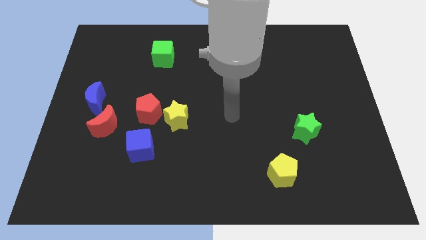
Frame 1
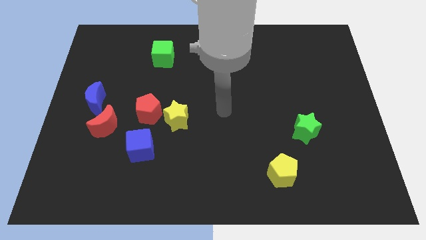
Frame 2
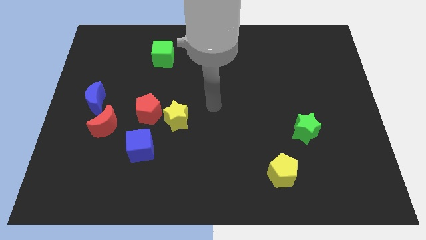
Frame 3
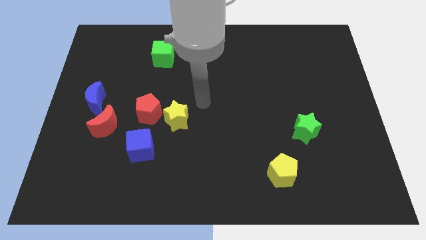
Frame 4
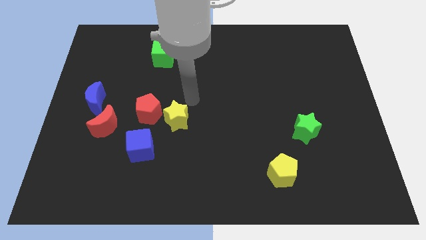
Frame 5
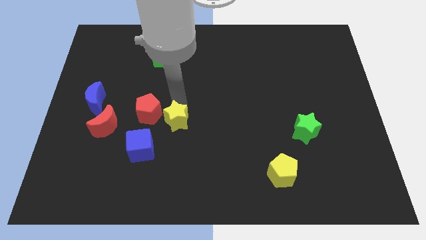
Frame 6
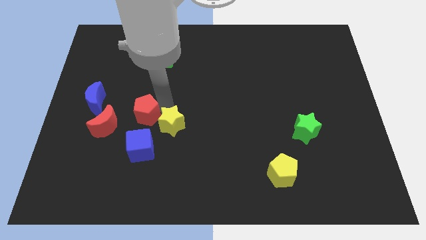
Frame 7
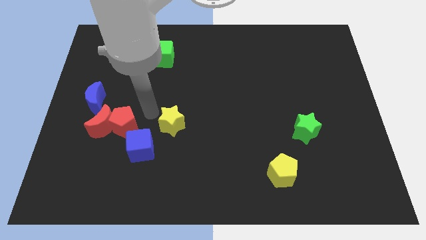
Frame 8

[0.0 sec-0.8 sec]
separate the yellow star from the red pentagon

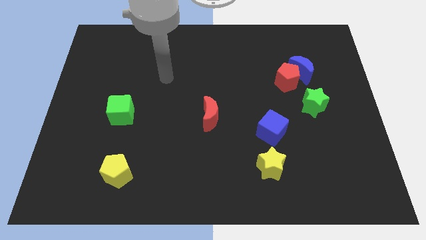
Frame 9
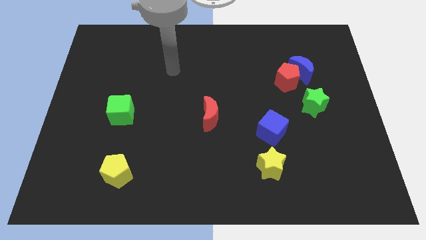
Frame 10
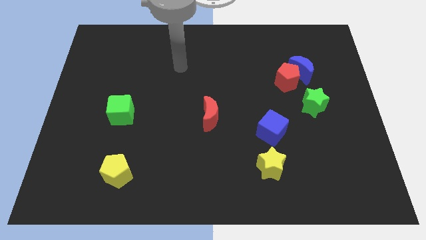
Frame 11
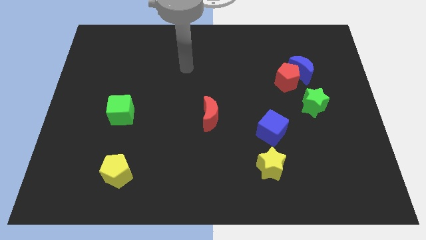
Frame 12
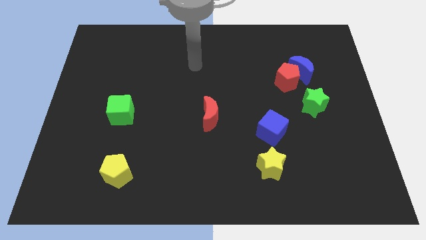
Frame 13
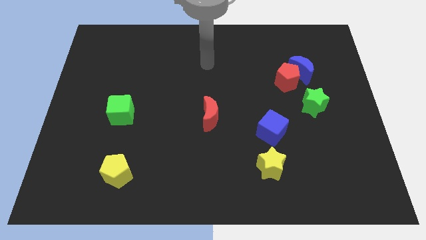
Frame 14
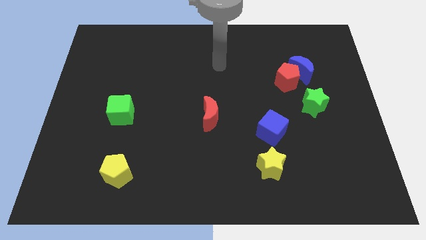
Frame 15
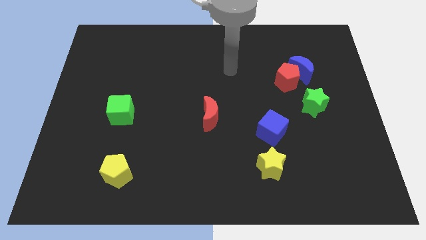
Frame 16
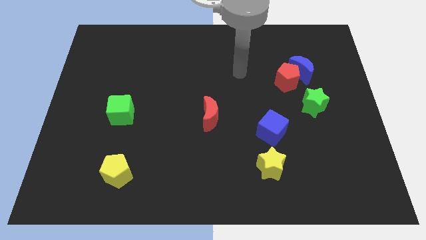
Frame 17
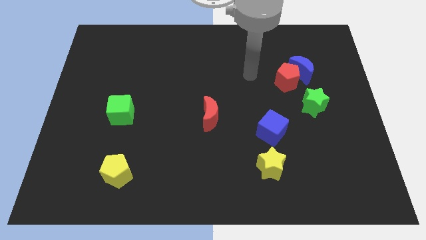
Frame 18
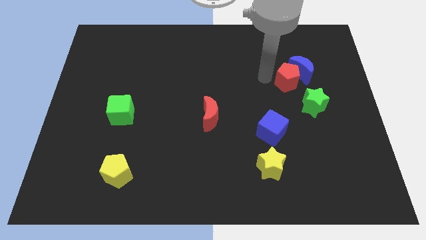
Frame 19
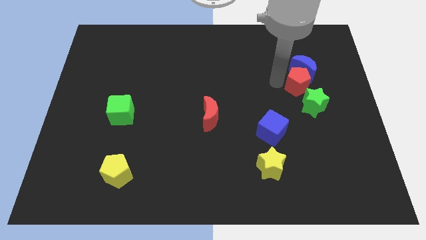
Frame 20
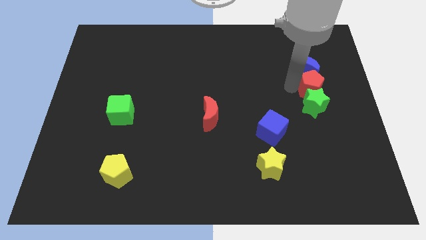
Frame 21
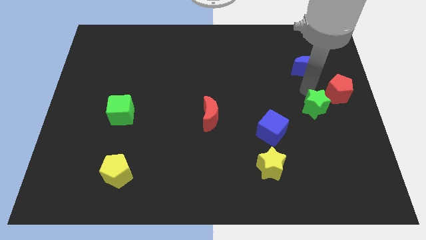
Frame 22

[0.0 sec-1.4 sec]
pull the blue moon apart from the red pentagon

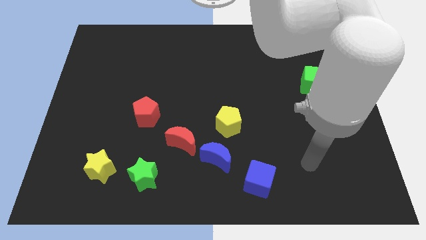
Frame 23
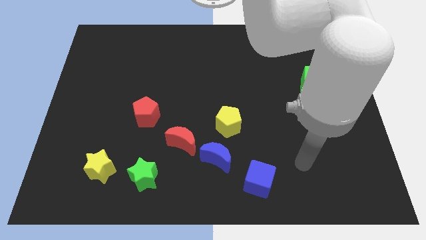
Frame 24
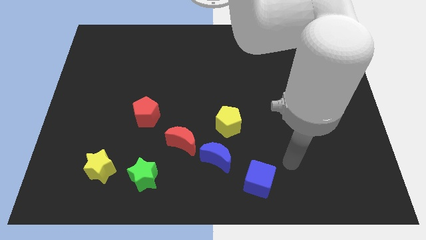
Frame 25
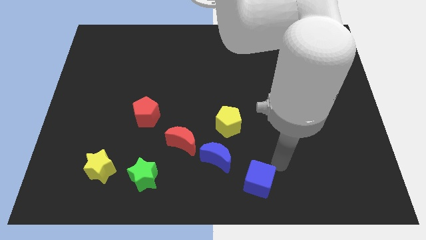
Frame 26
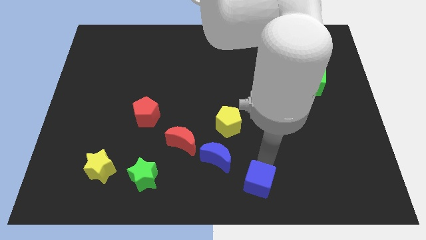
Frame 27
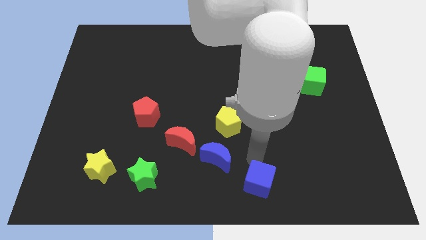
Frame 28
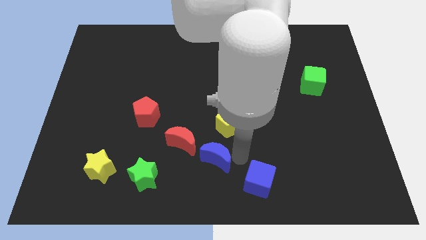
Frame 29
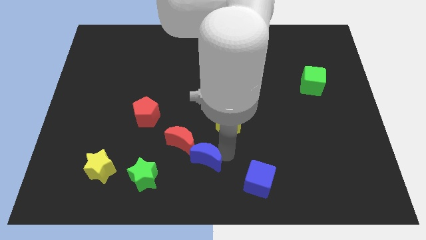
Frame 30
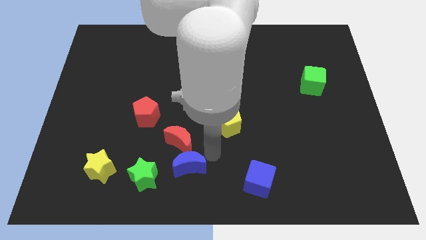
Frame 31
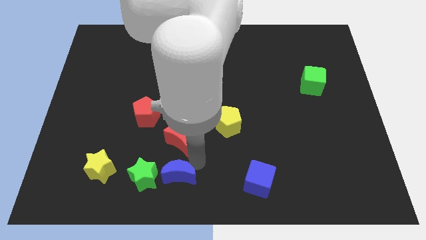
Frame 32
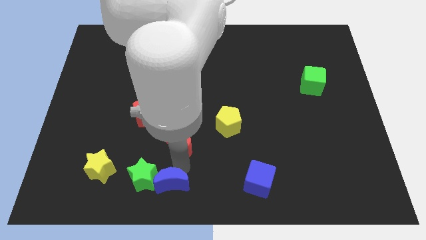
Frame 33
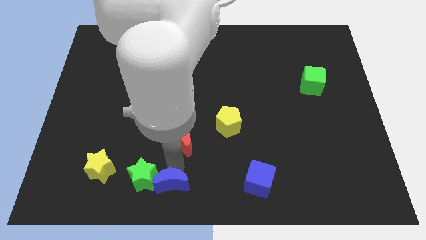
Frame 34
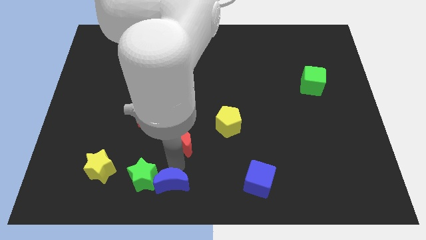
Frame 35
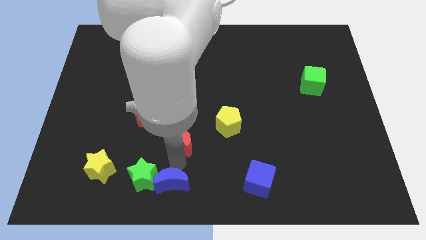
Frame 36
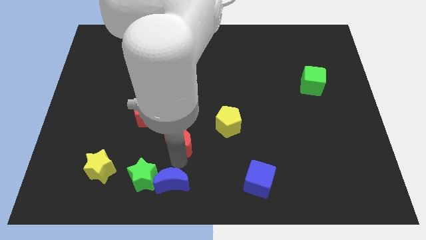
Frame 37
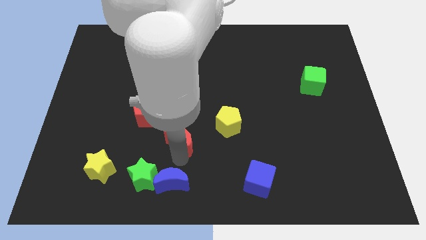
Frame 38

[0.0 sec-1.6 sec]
move the red moon away from the blue moon

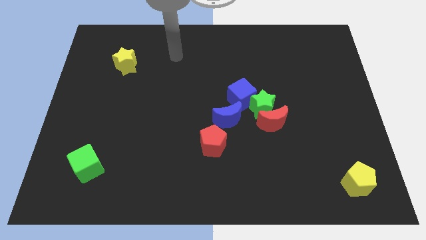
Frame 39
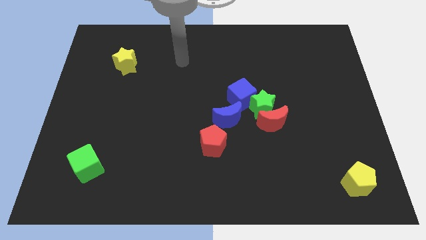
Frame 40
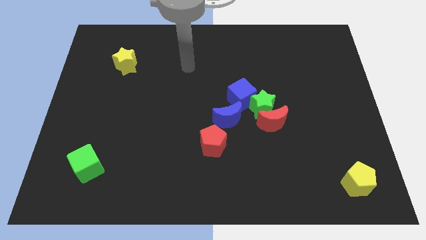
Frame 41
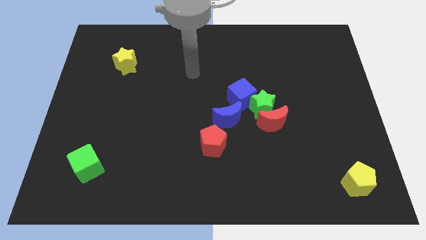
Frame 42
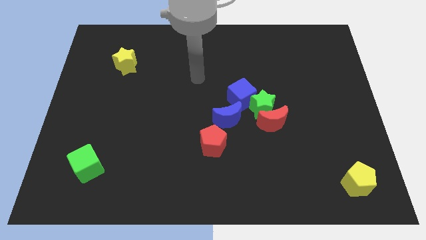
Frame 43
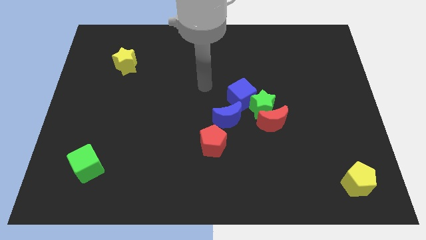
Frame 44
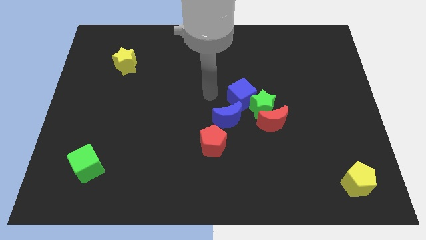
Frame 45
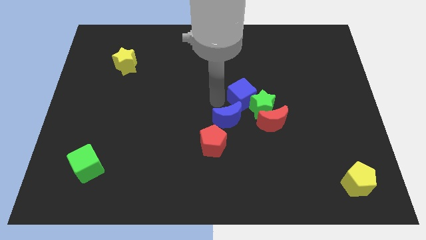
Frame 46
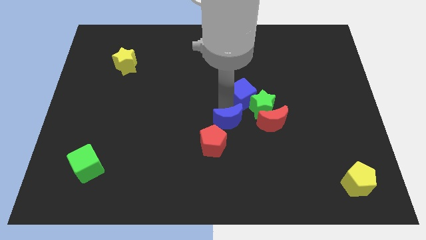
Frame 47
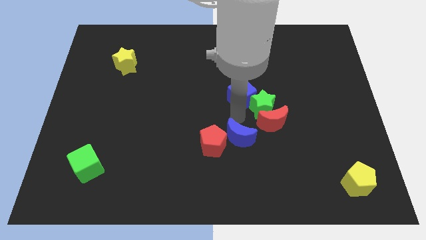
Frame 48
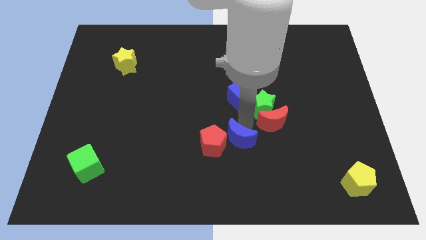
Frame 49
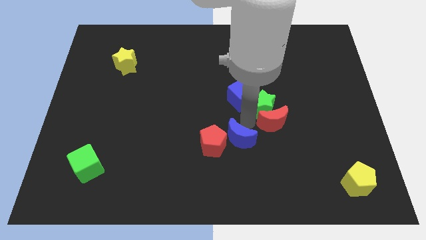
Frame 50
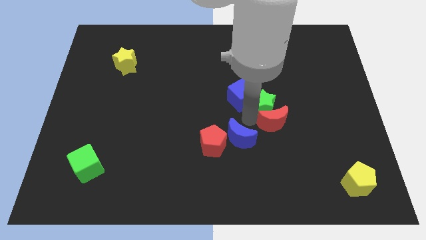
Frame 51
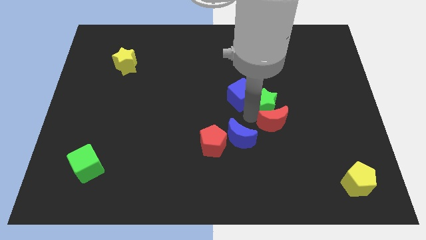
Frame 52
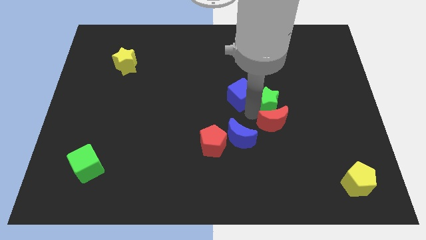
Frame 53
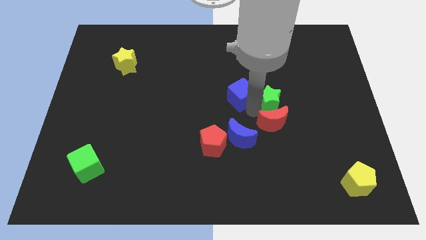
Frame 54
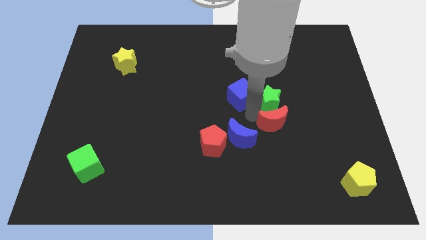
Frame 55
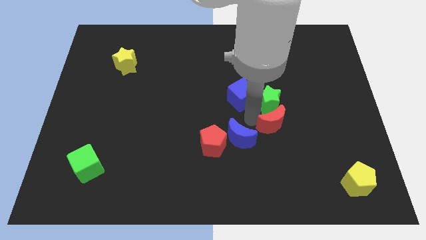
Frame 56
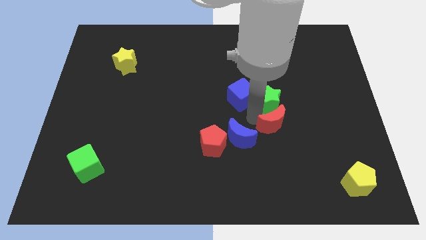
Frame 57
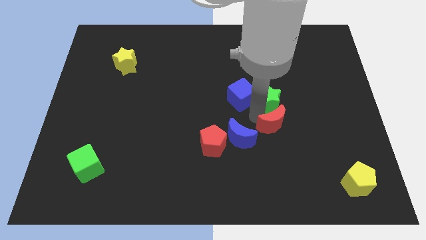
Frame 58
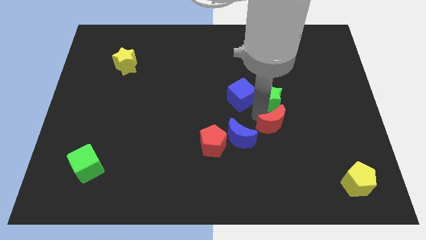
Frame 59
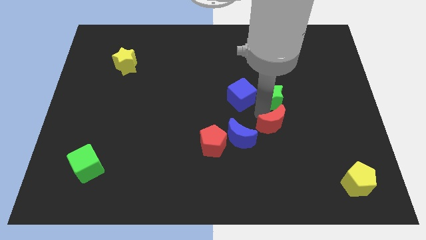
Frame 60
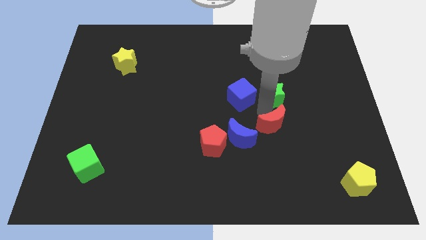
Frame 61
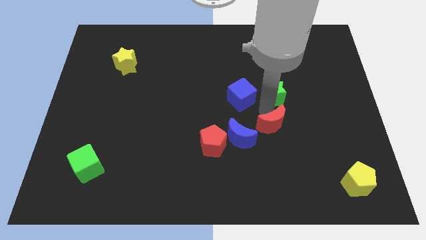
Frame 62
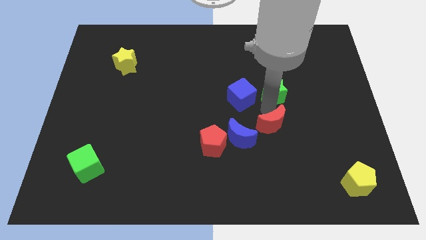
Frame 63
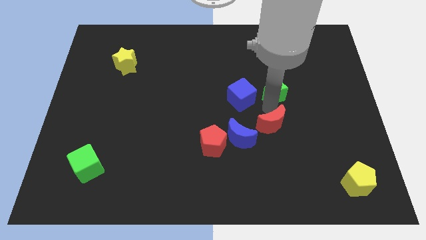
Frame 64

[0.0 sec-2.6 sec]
separate the green star from the group of blocks

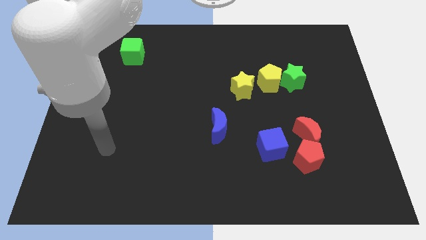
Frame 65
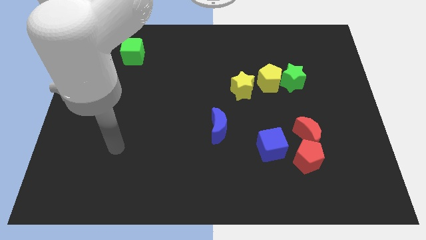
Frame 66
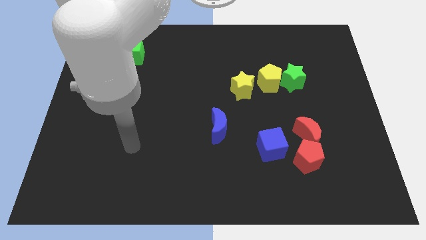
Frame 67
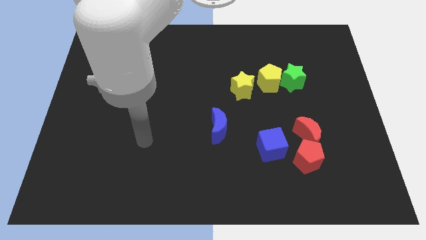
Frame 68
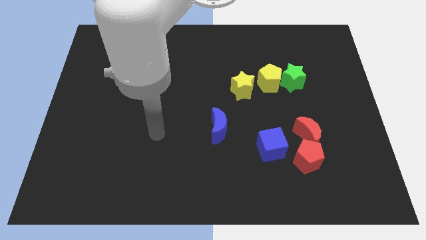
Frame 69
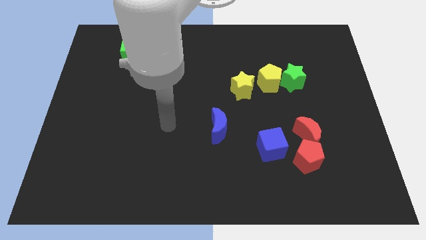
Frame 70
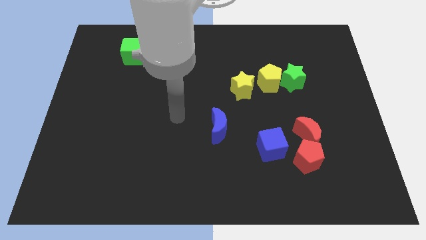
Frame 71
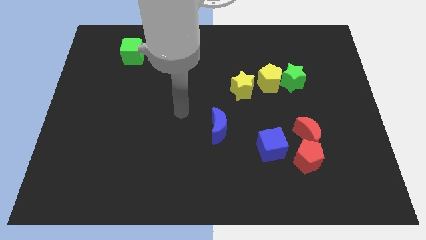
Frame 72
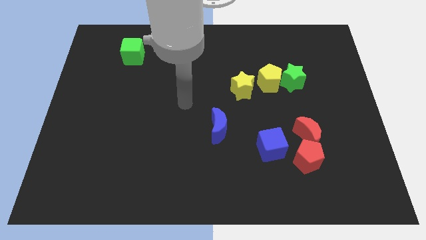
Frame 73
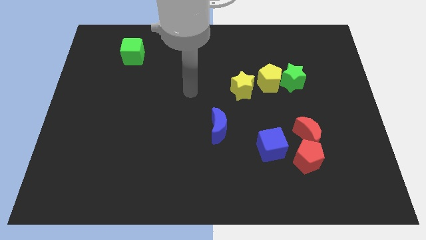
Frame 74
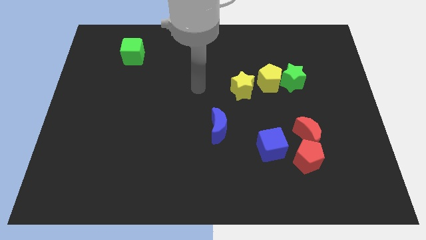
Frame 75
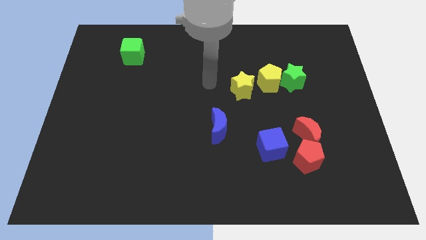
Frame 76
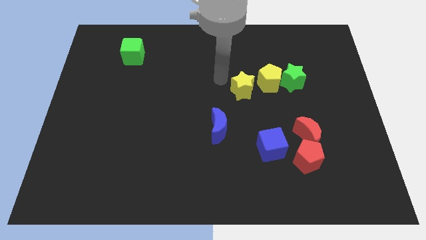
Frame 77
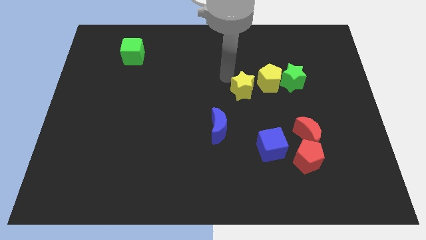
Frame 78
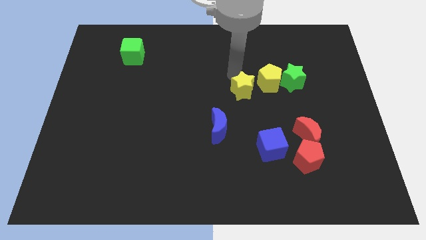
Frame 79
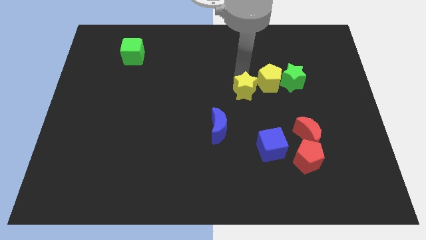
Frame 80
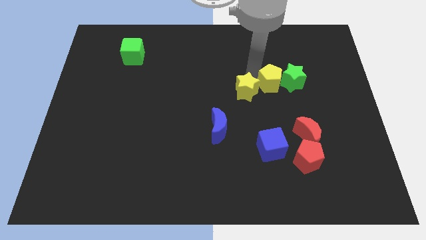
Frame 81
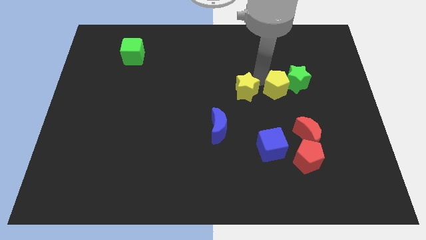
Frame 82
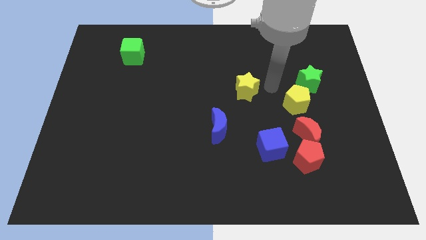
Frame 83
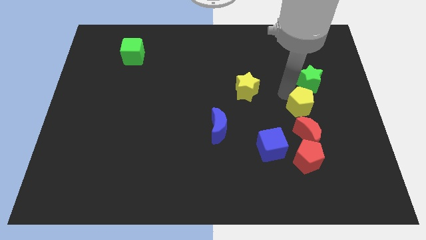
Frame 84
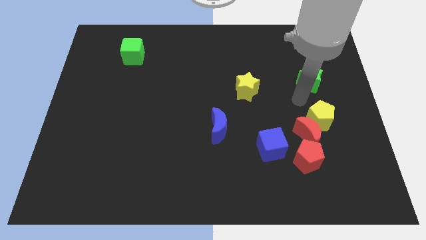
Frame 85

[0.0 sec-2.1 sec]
move the green star away from the yellow pentagon

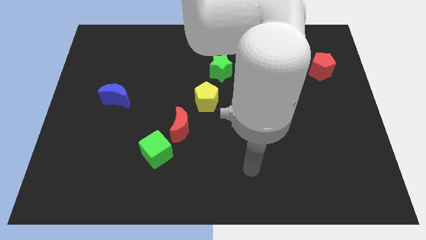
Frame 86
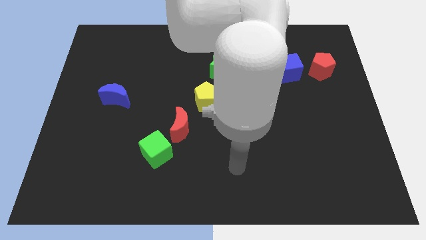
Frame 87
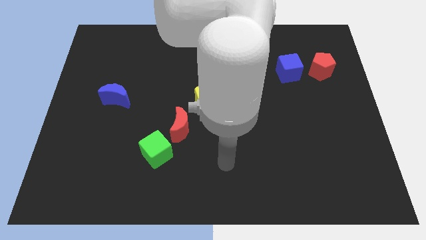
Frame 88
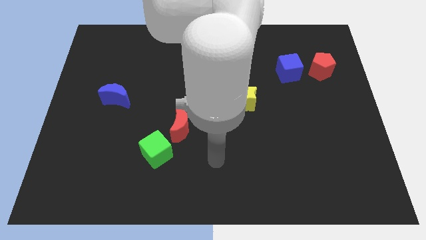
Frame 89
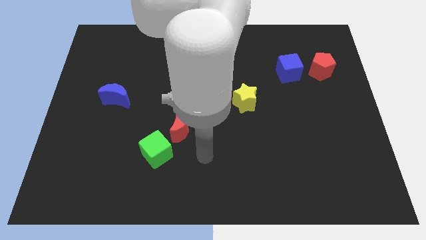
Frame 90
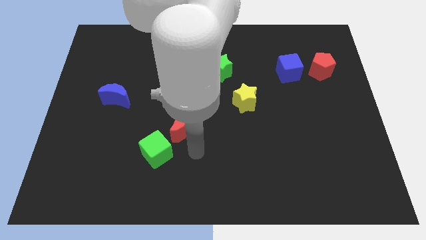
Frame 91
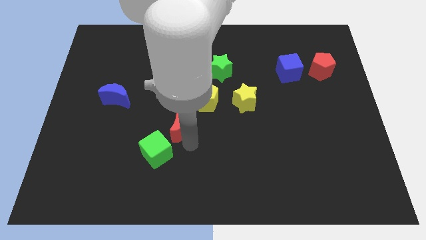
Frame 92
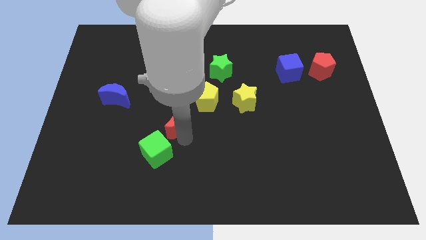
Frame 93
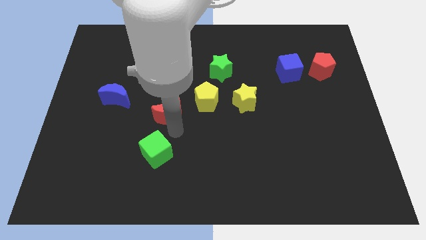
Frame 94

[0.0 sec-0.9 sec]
separate the green cube from the red moon
